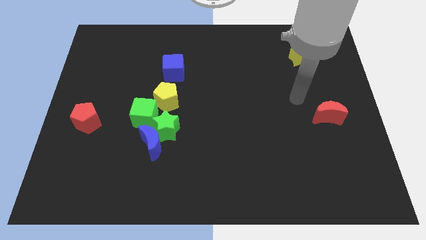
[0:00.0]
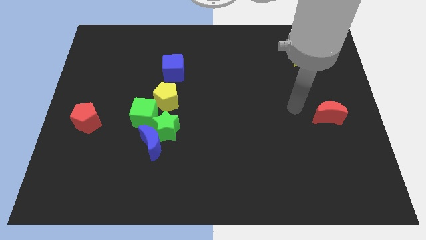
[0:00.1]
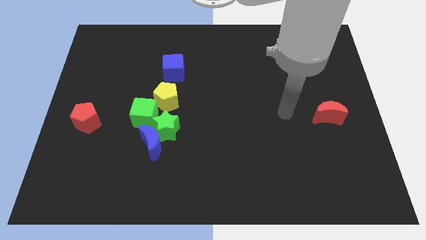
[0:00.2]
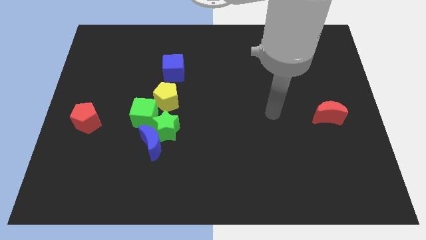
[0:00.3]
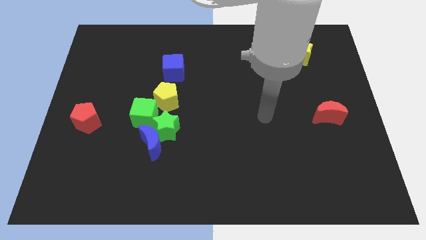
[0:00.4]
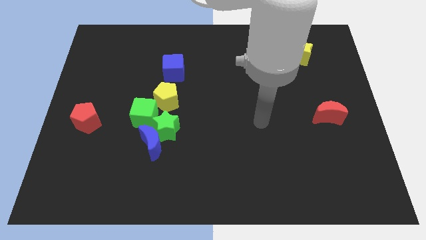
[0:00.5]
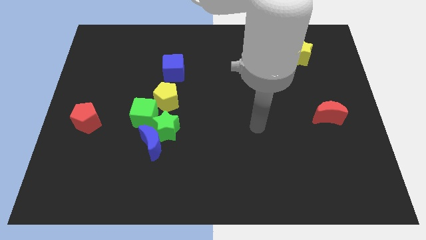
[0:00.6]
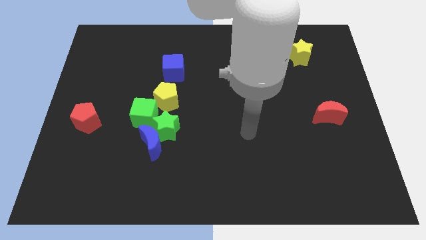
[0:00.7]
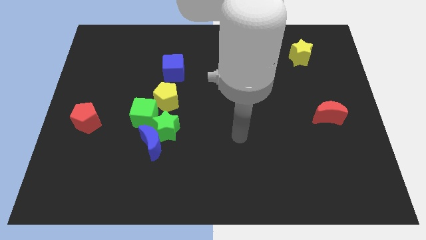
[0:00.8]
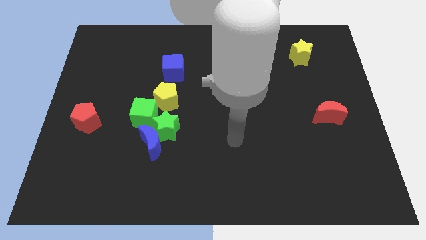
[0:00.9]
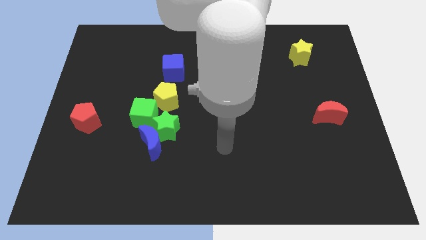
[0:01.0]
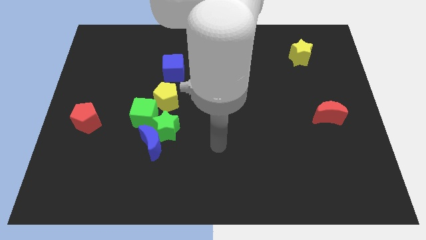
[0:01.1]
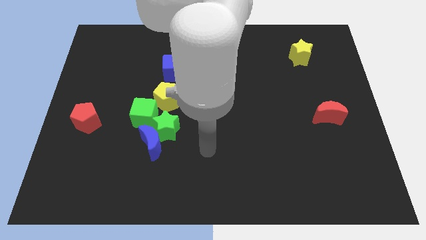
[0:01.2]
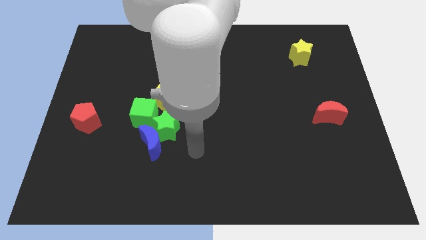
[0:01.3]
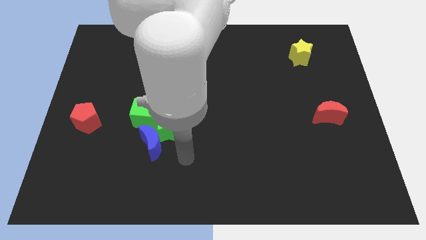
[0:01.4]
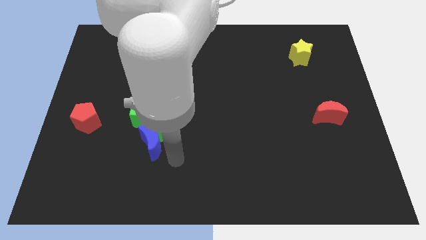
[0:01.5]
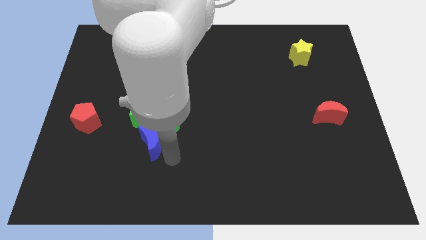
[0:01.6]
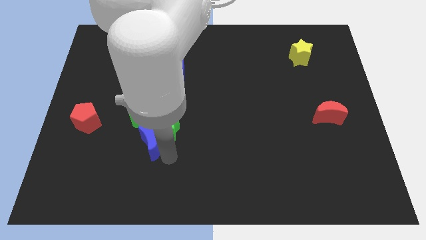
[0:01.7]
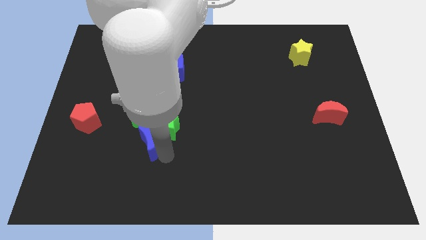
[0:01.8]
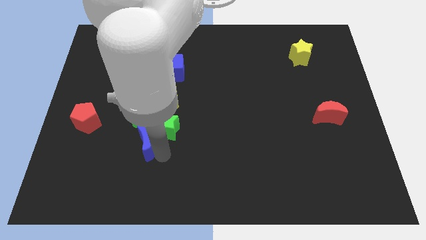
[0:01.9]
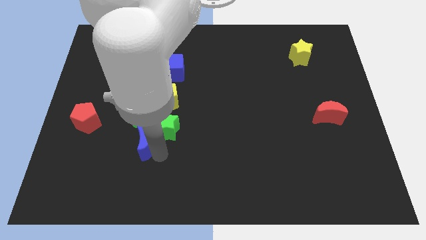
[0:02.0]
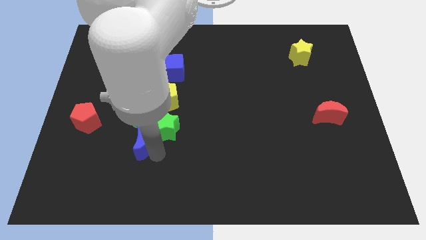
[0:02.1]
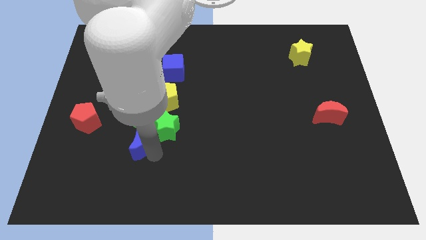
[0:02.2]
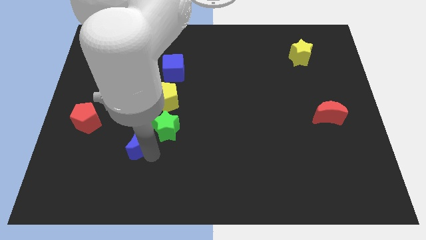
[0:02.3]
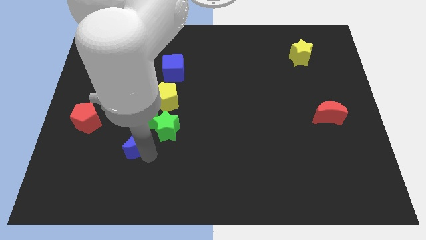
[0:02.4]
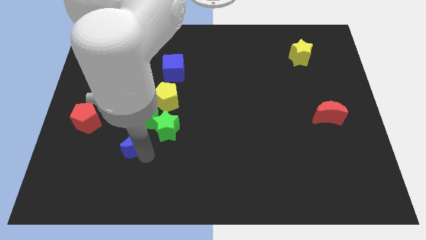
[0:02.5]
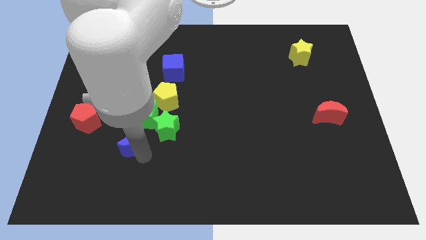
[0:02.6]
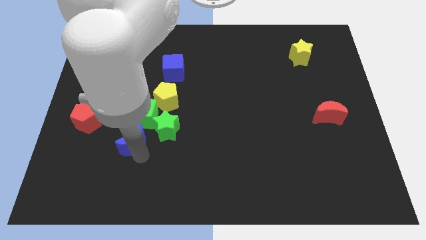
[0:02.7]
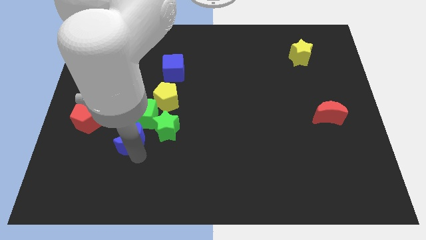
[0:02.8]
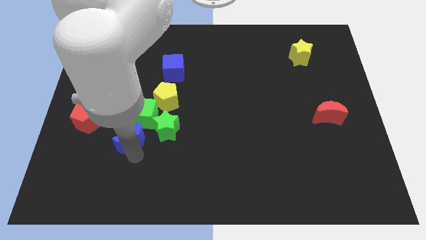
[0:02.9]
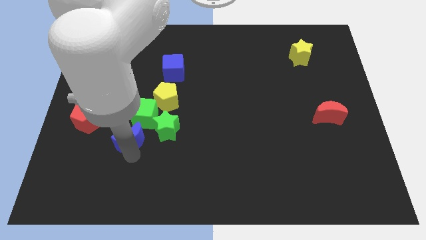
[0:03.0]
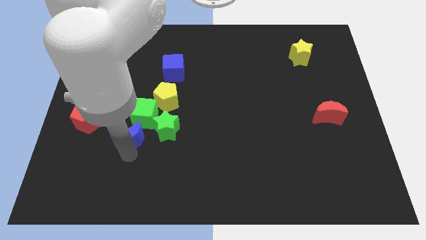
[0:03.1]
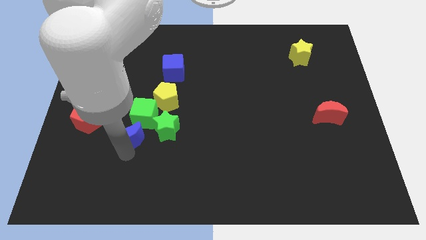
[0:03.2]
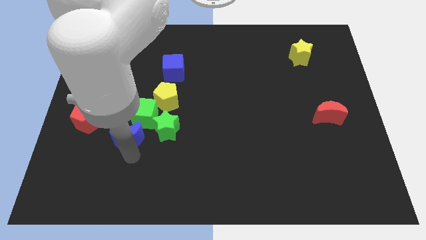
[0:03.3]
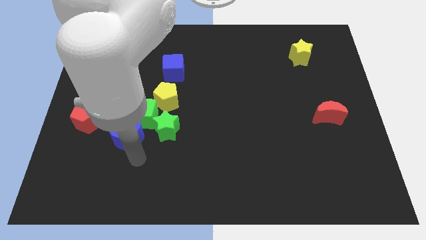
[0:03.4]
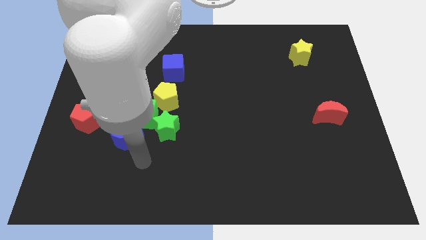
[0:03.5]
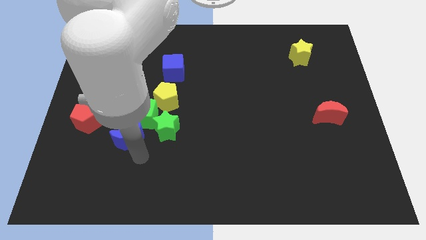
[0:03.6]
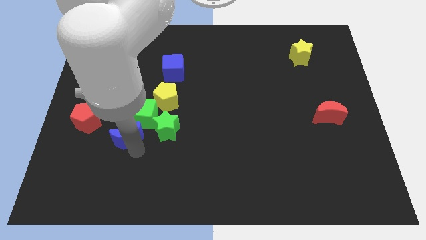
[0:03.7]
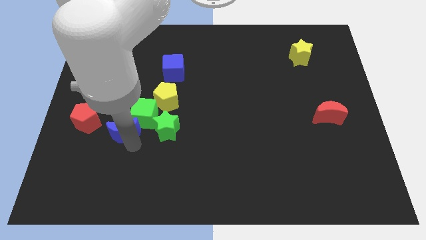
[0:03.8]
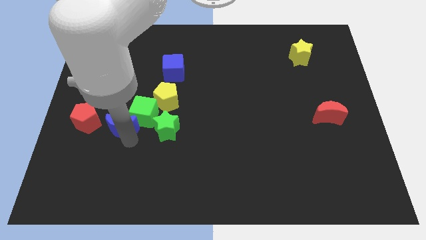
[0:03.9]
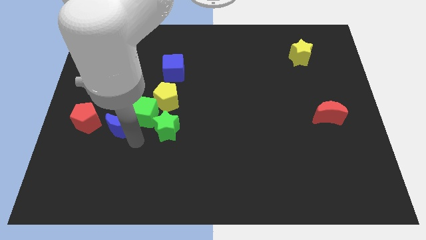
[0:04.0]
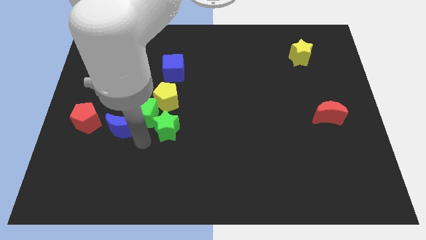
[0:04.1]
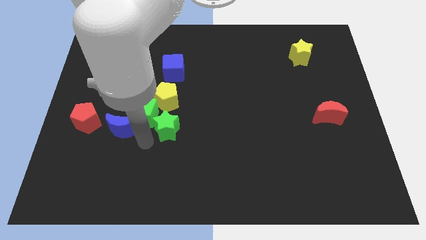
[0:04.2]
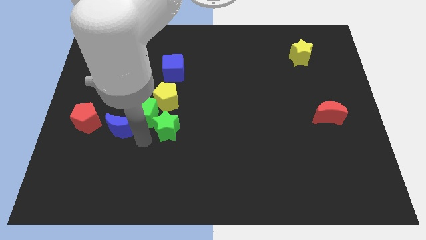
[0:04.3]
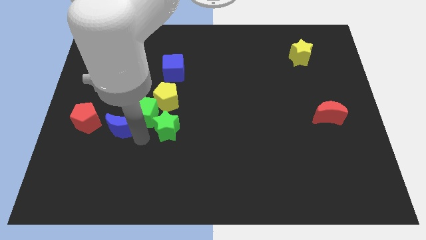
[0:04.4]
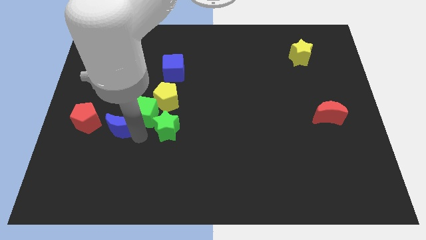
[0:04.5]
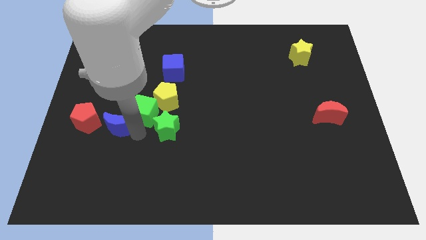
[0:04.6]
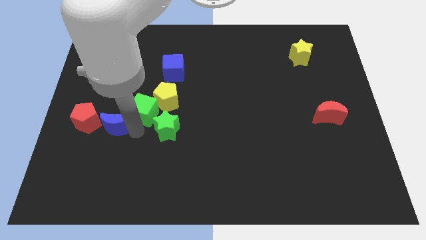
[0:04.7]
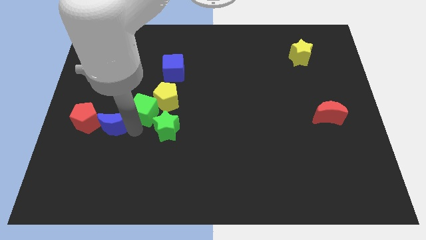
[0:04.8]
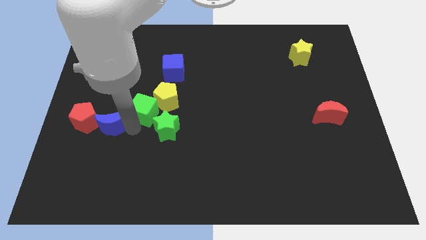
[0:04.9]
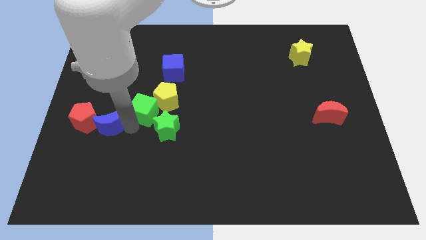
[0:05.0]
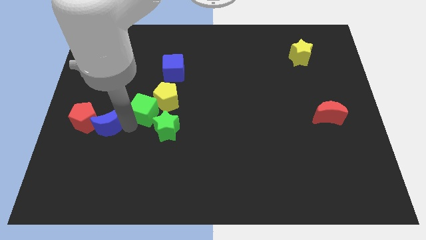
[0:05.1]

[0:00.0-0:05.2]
slide the blue moon towards the red pentagon

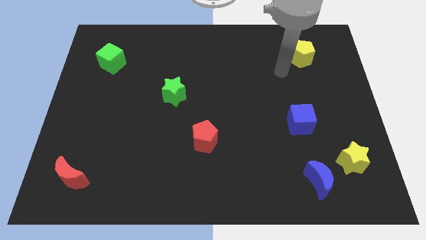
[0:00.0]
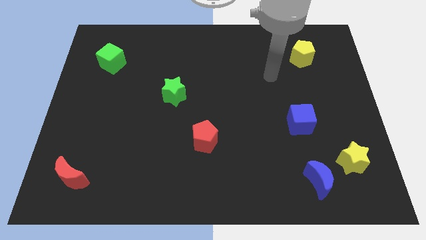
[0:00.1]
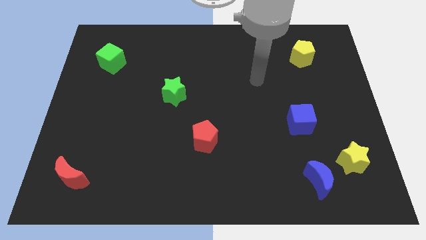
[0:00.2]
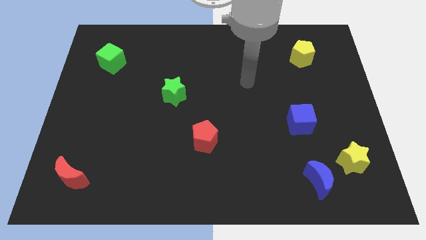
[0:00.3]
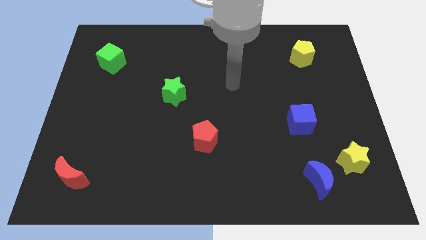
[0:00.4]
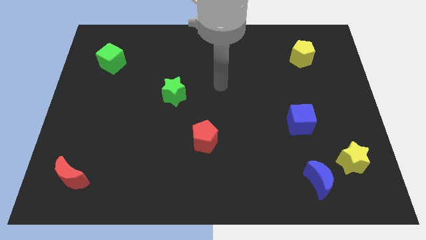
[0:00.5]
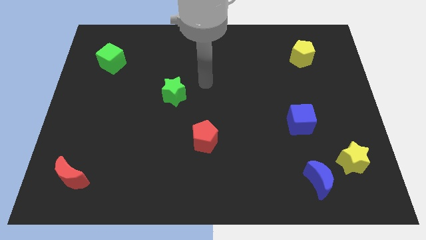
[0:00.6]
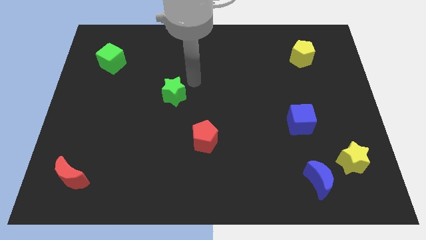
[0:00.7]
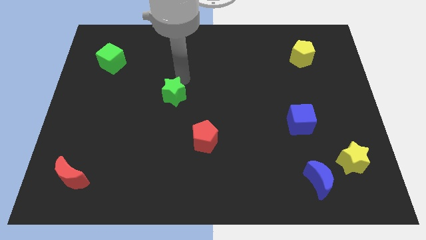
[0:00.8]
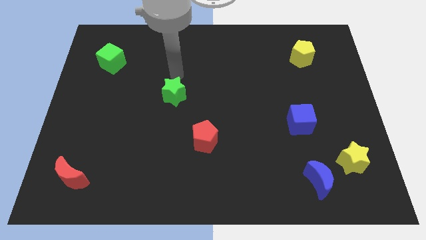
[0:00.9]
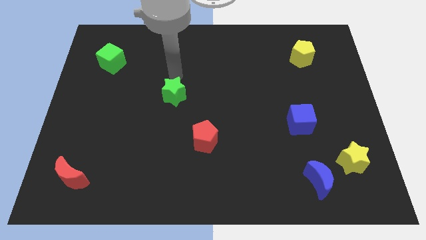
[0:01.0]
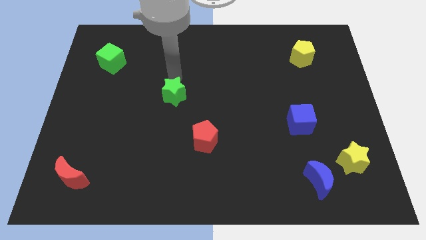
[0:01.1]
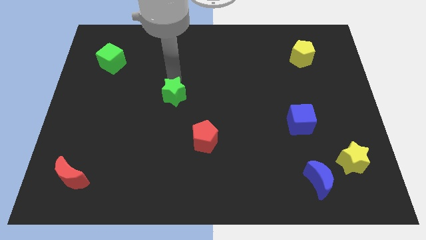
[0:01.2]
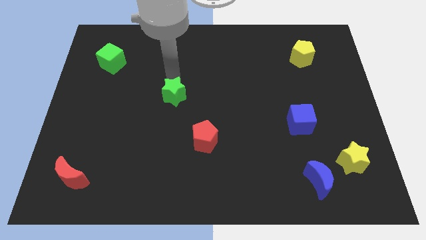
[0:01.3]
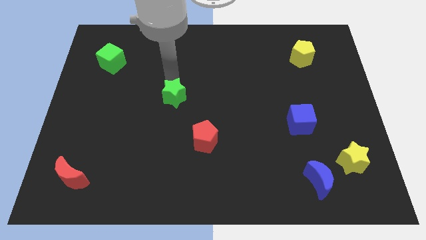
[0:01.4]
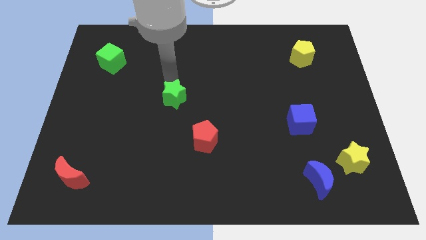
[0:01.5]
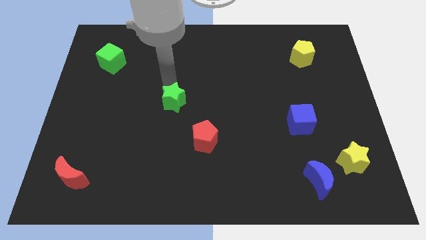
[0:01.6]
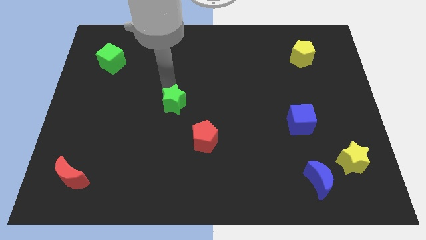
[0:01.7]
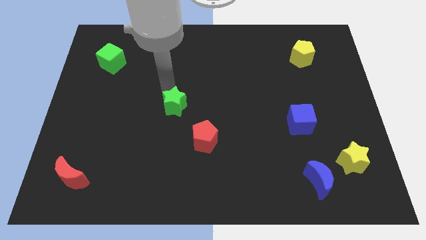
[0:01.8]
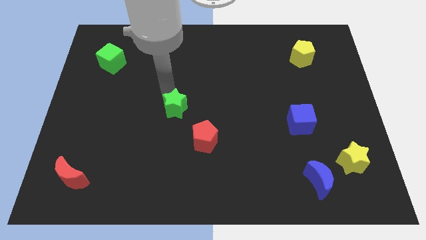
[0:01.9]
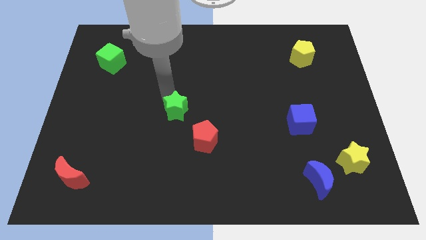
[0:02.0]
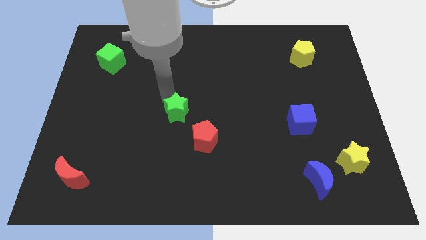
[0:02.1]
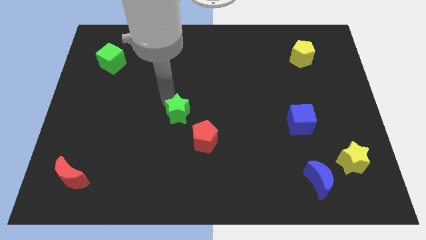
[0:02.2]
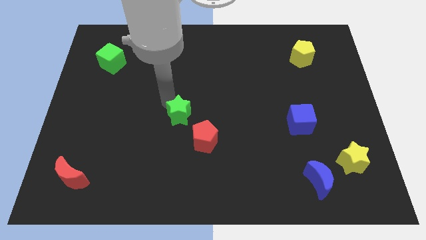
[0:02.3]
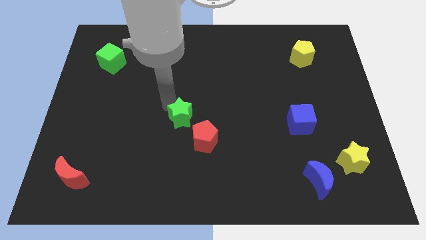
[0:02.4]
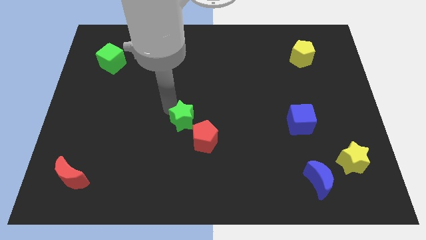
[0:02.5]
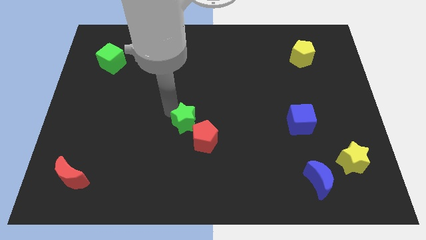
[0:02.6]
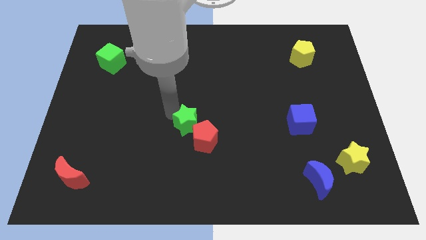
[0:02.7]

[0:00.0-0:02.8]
move the green star close to the red pentagon
